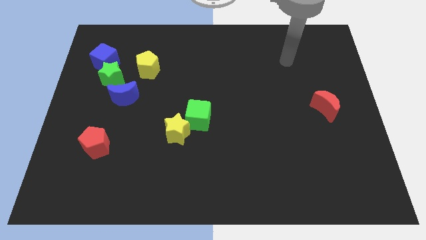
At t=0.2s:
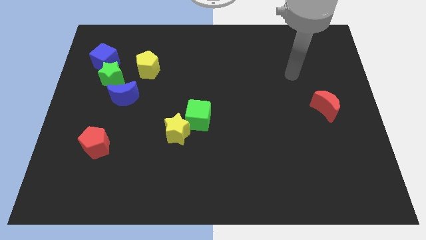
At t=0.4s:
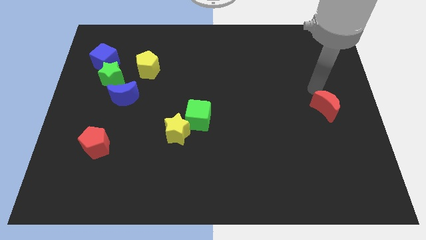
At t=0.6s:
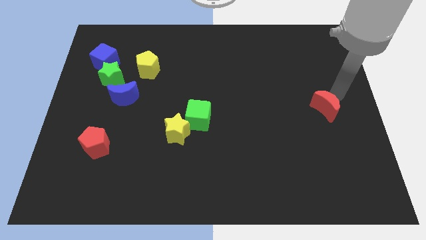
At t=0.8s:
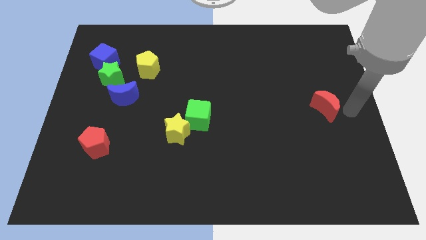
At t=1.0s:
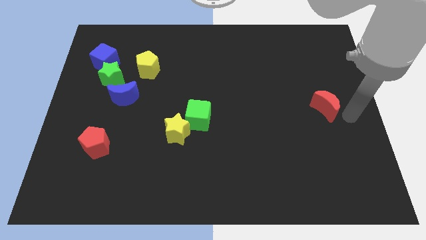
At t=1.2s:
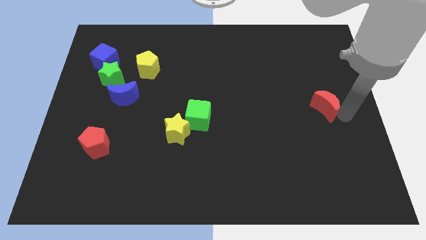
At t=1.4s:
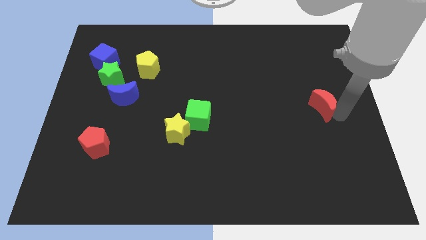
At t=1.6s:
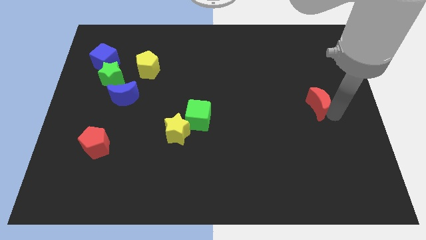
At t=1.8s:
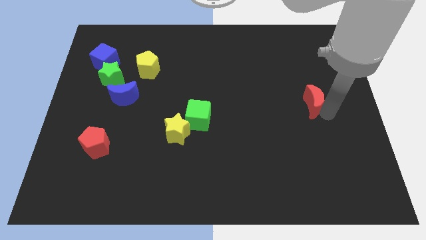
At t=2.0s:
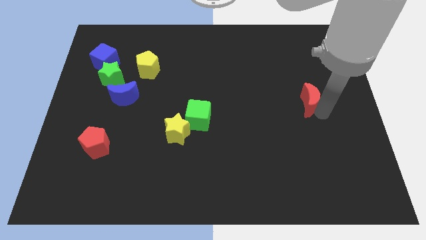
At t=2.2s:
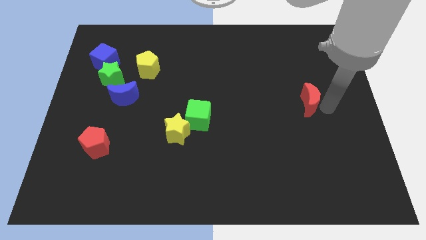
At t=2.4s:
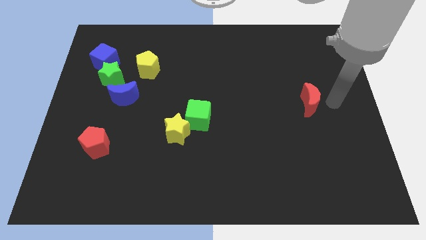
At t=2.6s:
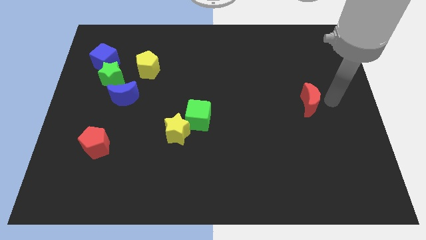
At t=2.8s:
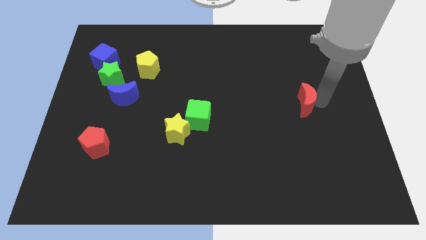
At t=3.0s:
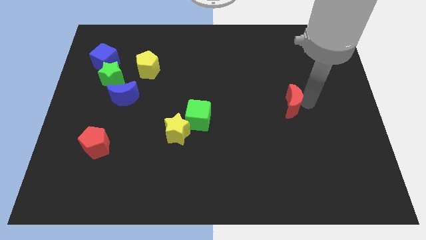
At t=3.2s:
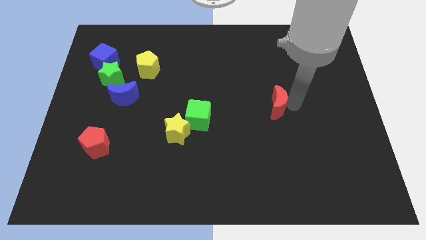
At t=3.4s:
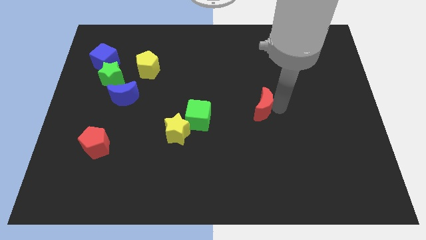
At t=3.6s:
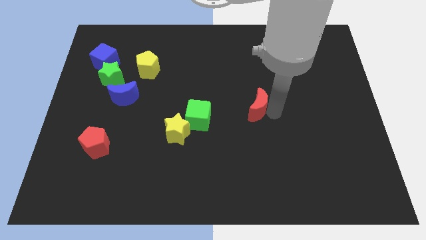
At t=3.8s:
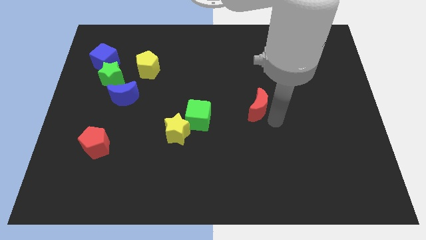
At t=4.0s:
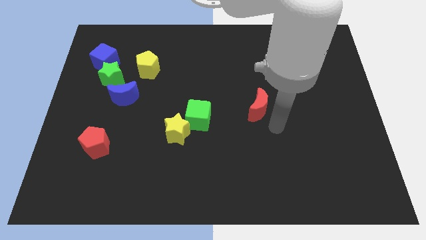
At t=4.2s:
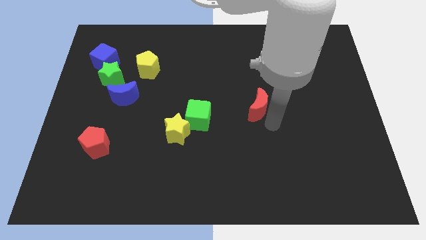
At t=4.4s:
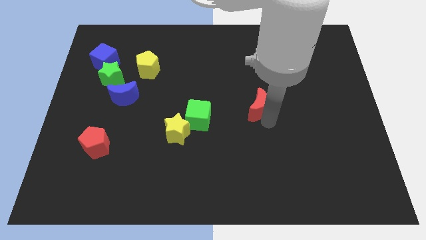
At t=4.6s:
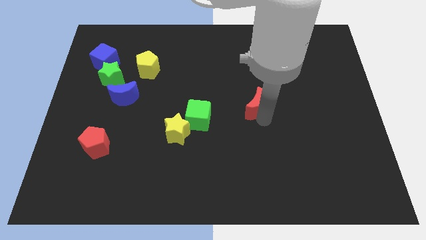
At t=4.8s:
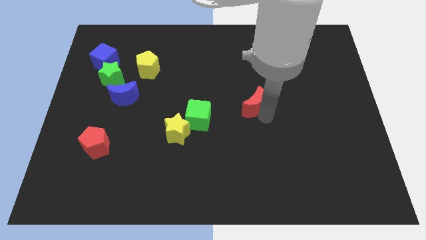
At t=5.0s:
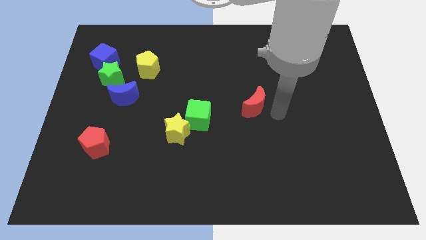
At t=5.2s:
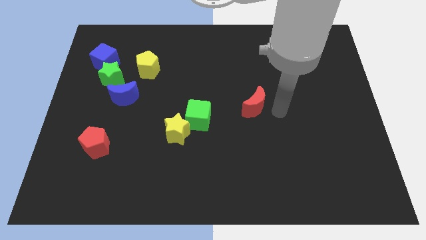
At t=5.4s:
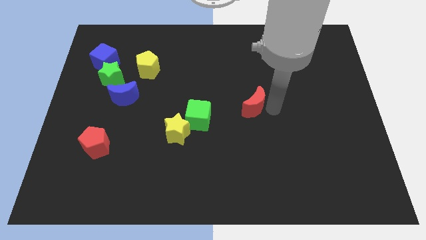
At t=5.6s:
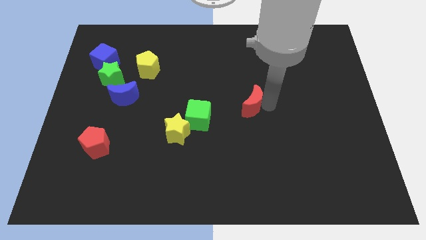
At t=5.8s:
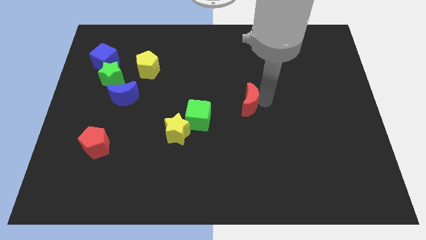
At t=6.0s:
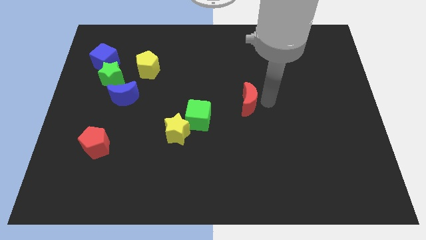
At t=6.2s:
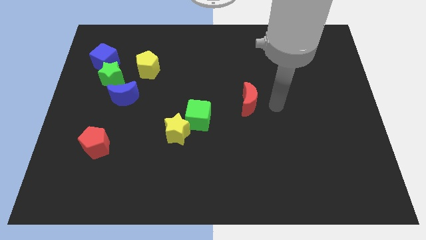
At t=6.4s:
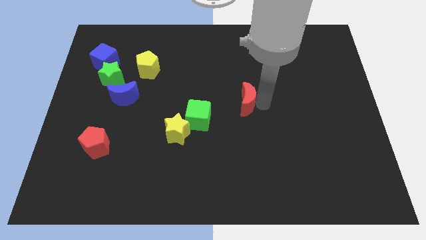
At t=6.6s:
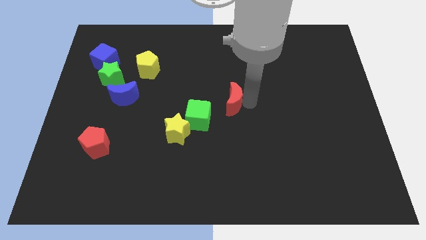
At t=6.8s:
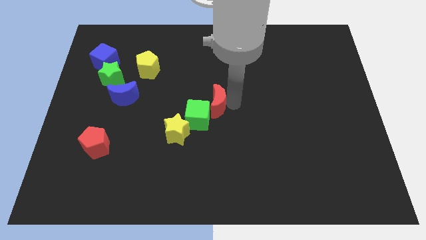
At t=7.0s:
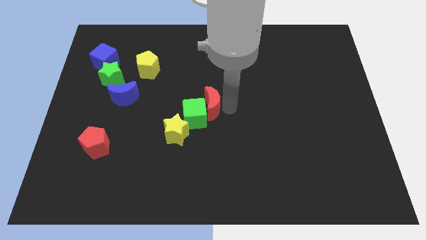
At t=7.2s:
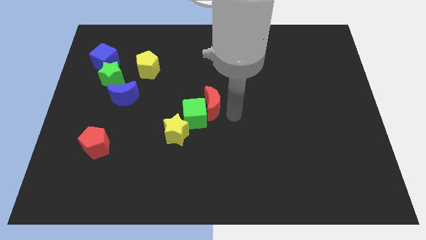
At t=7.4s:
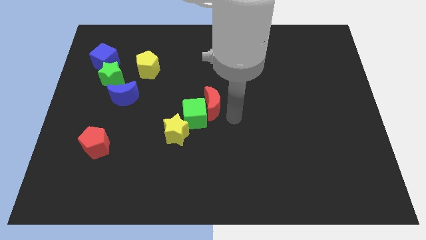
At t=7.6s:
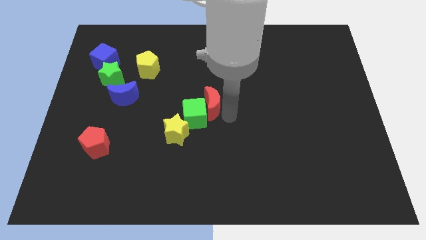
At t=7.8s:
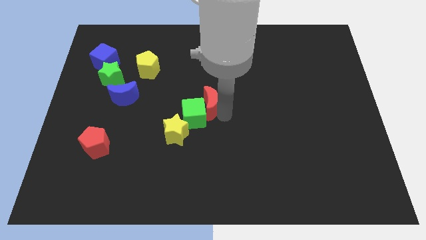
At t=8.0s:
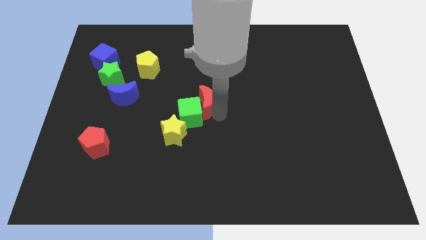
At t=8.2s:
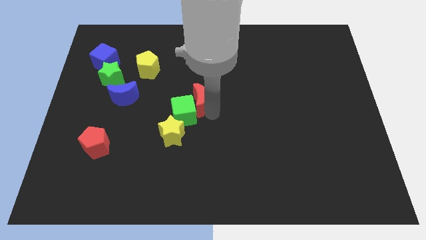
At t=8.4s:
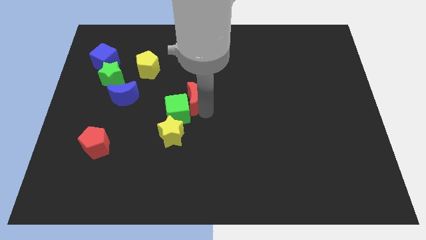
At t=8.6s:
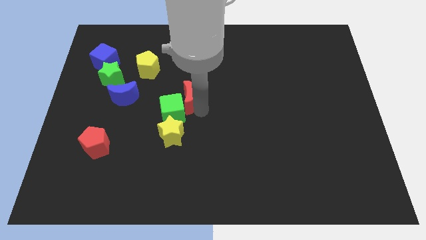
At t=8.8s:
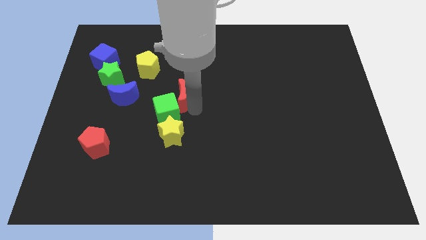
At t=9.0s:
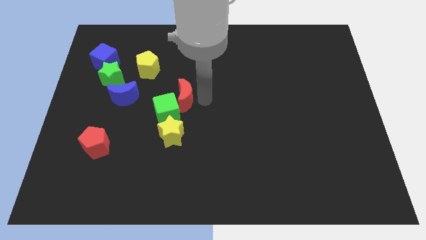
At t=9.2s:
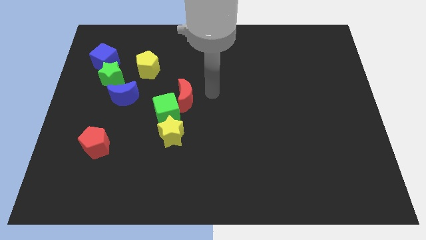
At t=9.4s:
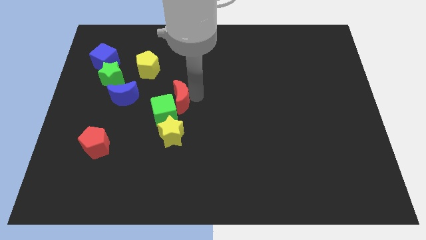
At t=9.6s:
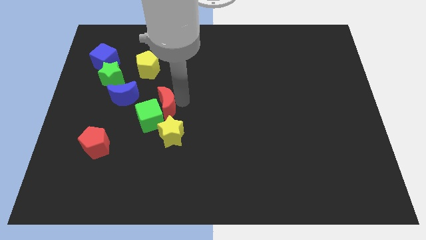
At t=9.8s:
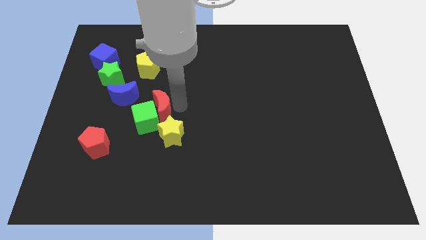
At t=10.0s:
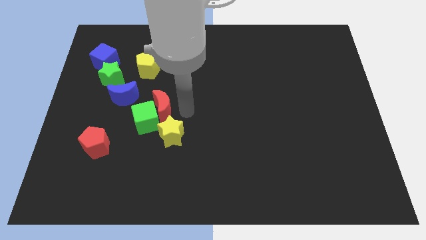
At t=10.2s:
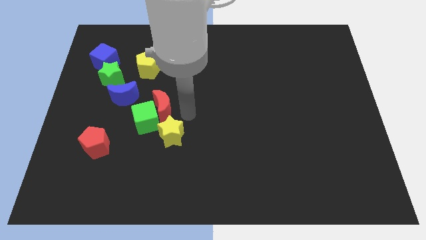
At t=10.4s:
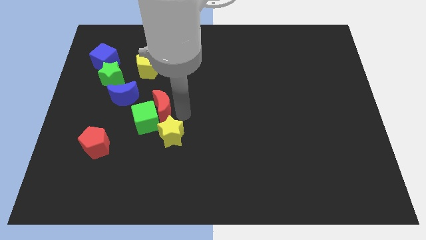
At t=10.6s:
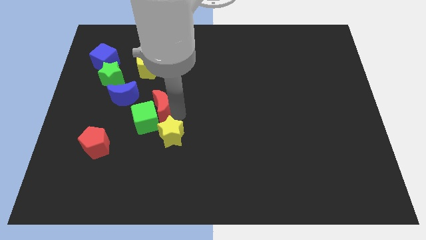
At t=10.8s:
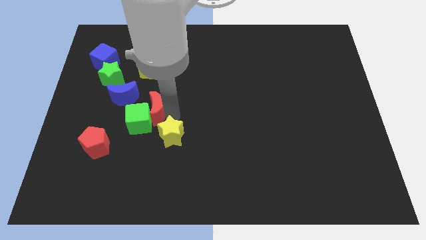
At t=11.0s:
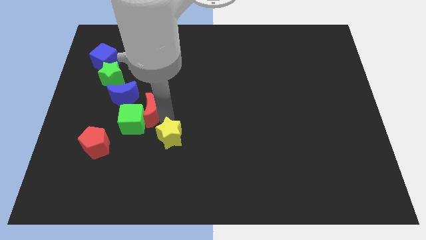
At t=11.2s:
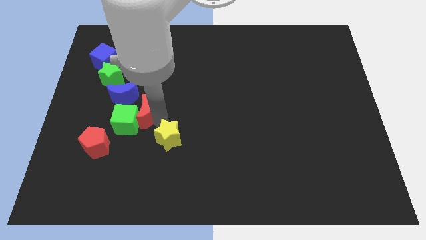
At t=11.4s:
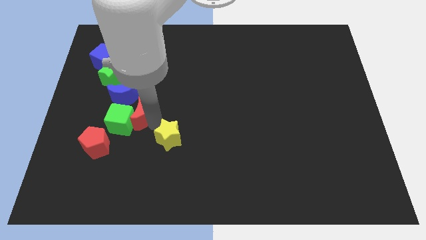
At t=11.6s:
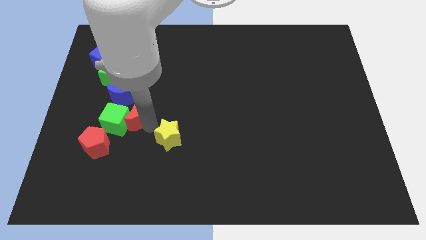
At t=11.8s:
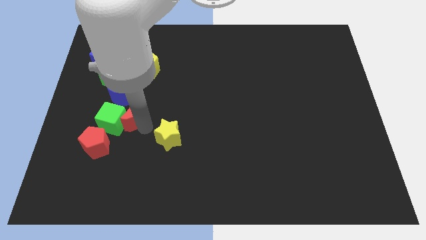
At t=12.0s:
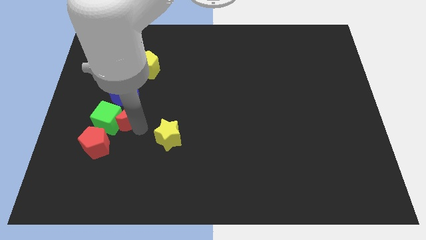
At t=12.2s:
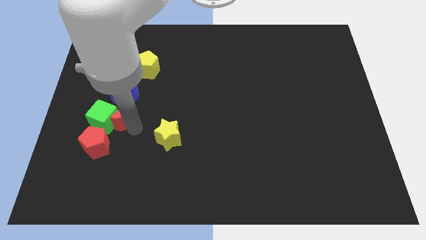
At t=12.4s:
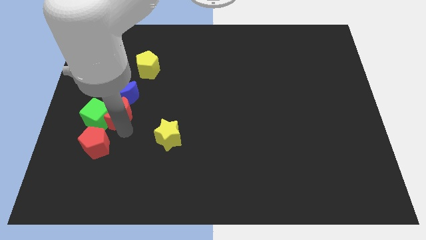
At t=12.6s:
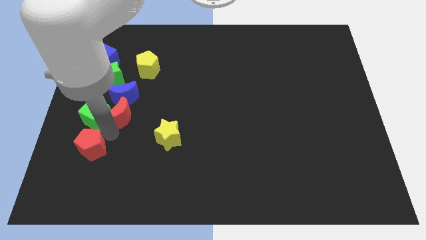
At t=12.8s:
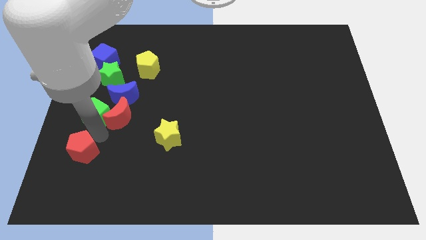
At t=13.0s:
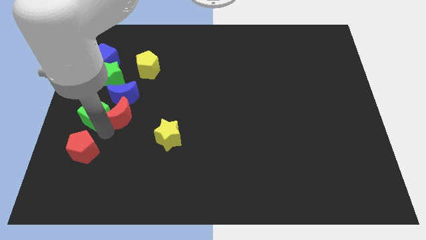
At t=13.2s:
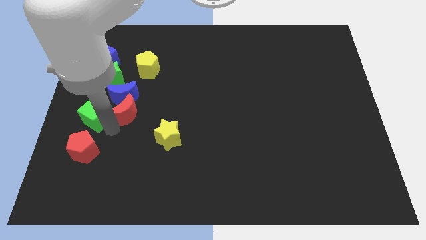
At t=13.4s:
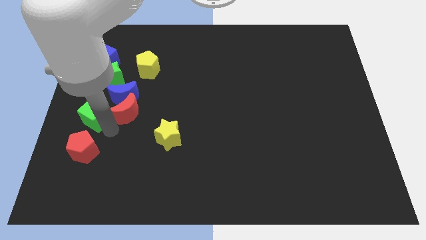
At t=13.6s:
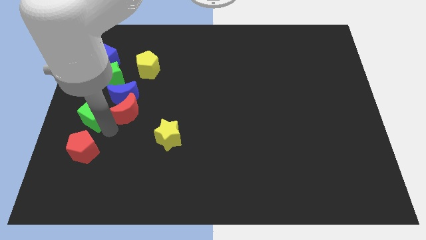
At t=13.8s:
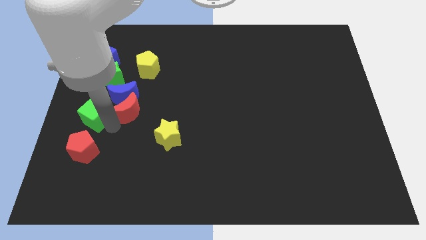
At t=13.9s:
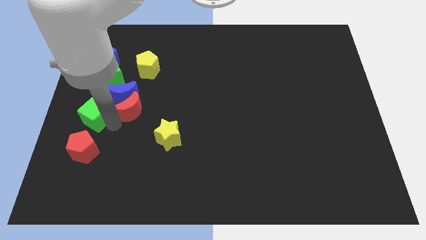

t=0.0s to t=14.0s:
put the red moon to the bottom right side of the green star
